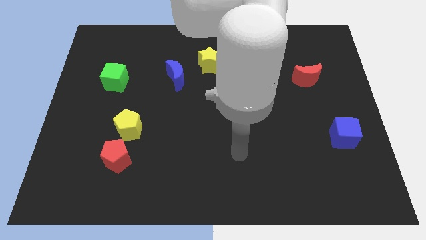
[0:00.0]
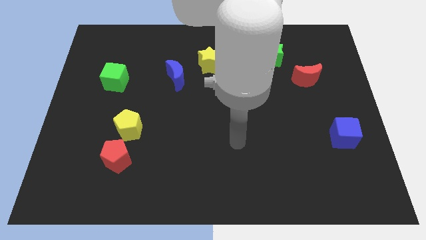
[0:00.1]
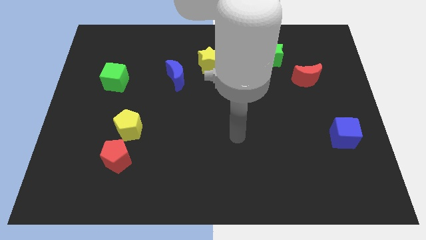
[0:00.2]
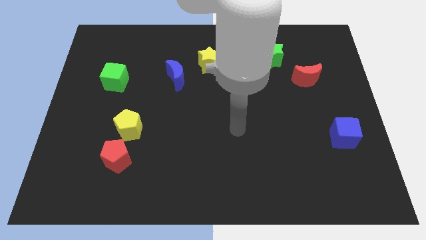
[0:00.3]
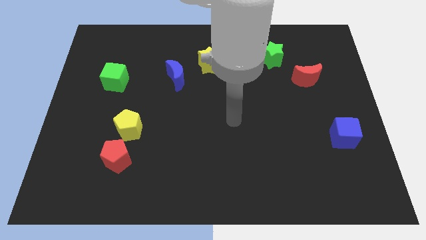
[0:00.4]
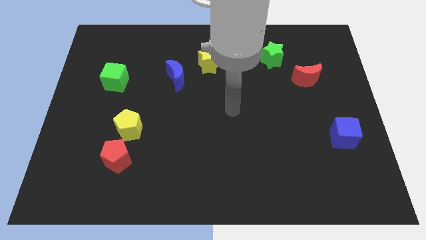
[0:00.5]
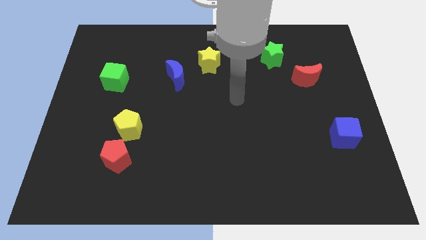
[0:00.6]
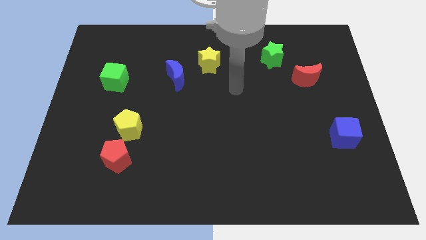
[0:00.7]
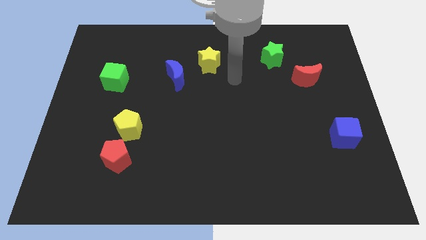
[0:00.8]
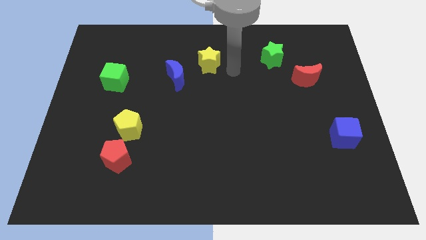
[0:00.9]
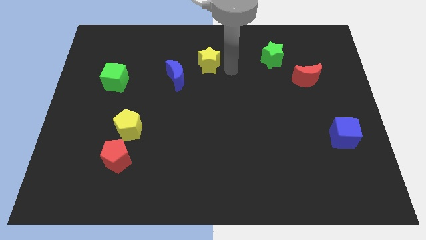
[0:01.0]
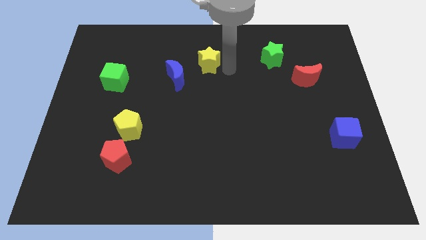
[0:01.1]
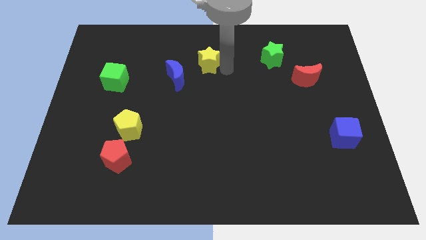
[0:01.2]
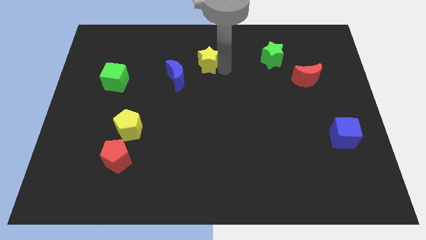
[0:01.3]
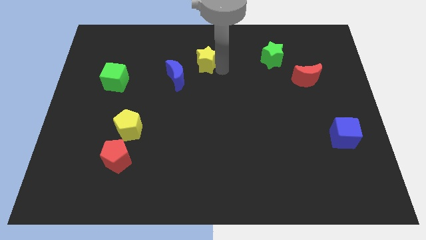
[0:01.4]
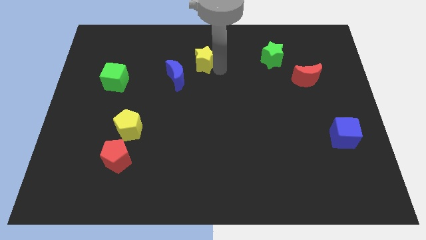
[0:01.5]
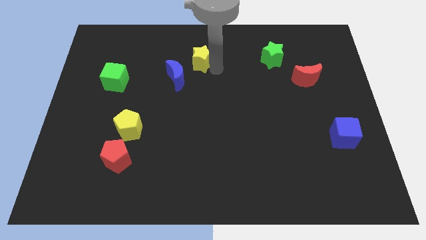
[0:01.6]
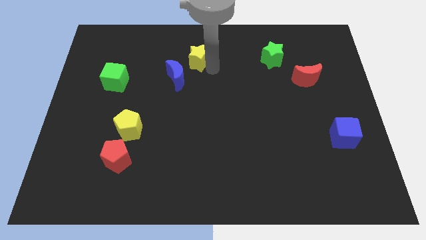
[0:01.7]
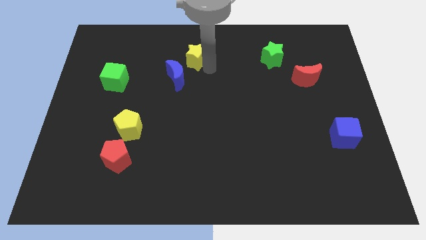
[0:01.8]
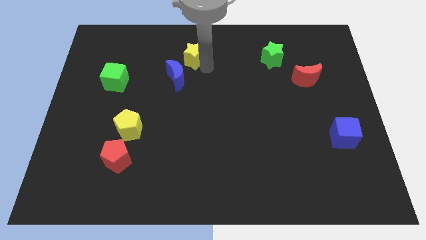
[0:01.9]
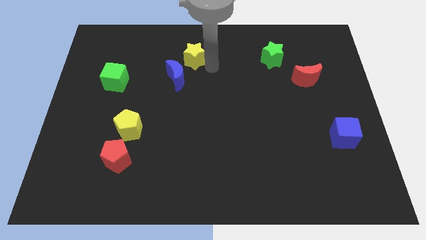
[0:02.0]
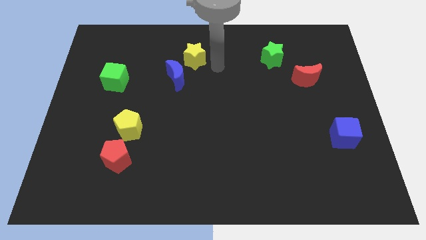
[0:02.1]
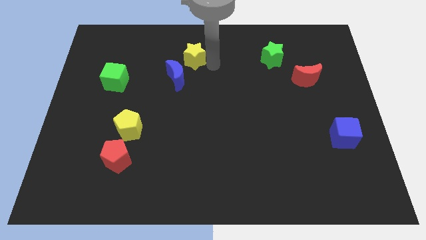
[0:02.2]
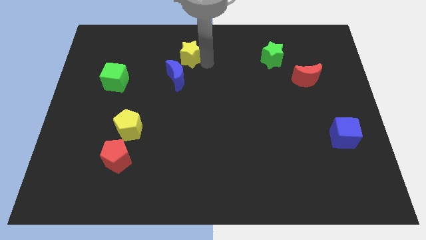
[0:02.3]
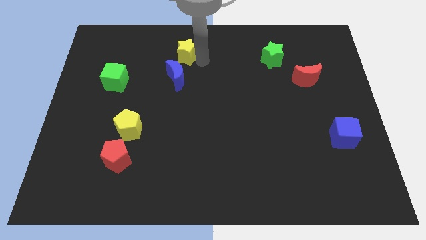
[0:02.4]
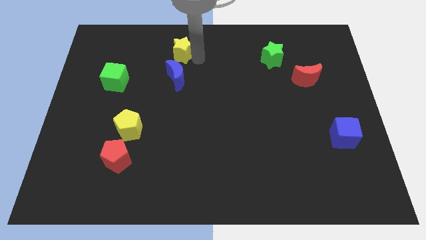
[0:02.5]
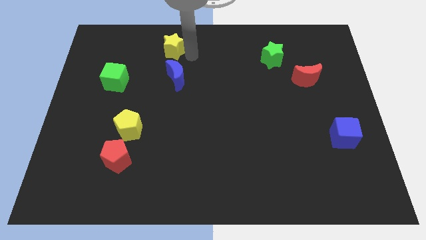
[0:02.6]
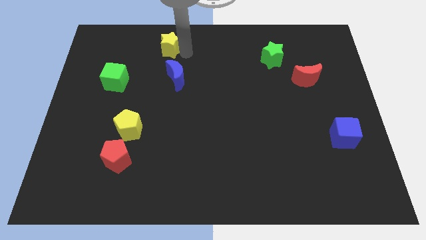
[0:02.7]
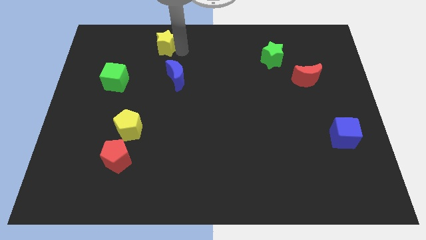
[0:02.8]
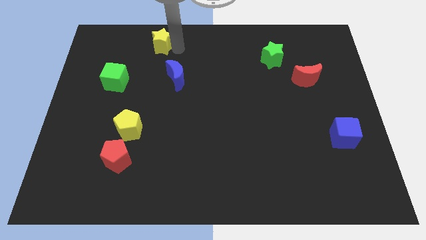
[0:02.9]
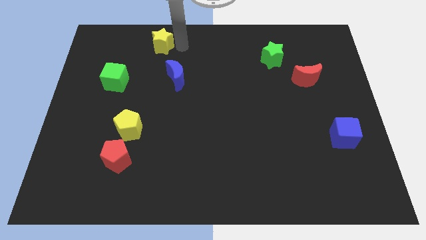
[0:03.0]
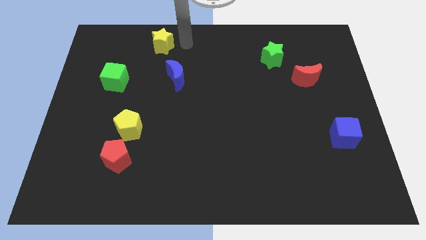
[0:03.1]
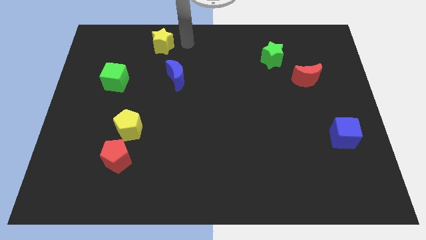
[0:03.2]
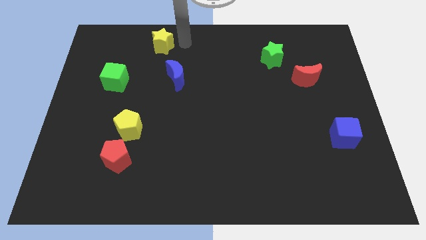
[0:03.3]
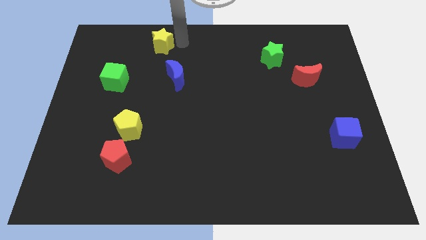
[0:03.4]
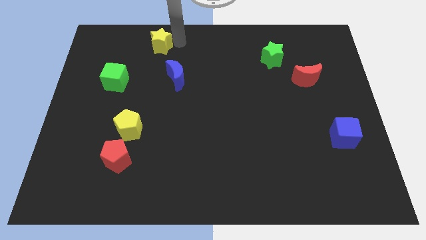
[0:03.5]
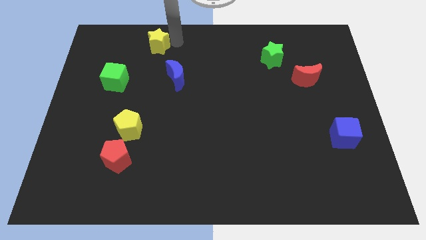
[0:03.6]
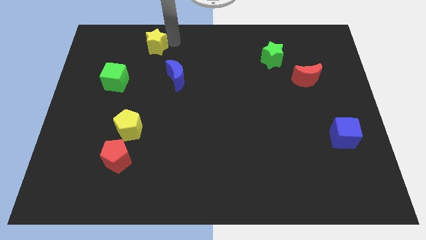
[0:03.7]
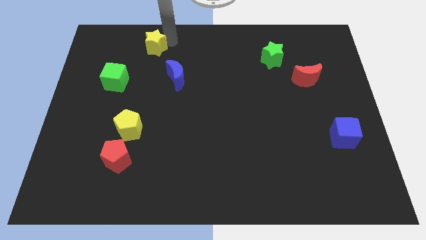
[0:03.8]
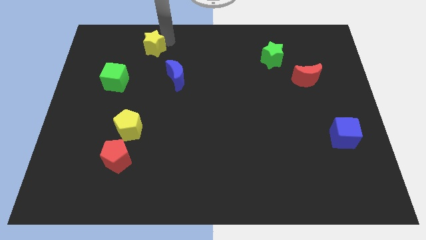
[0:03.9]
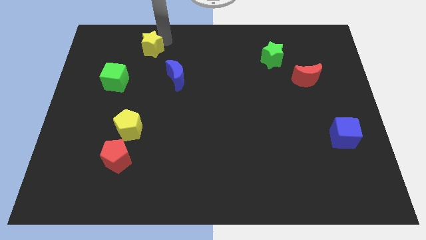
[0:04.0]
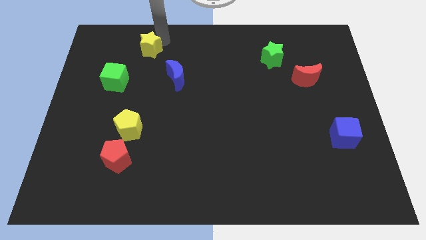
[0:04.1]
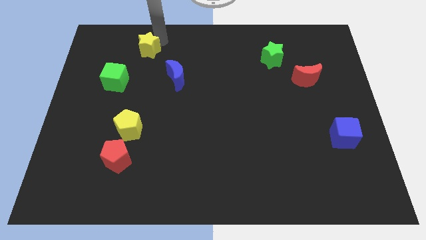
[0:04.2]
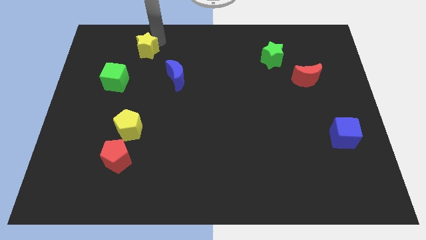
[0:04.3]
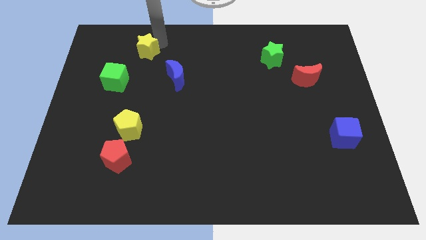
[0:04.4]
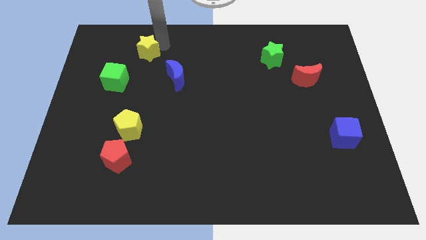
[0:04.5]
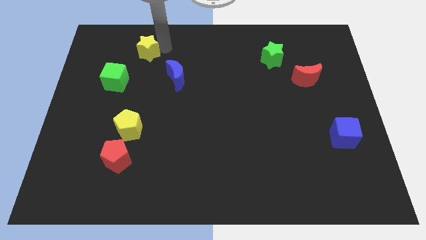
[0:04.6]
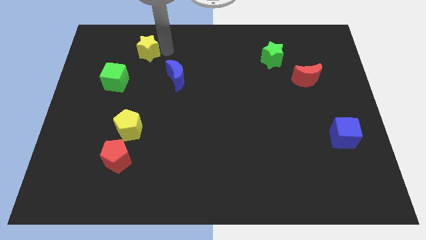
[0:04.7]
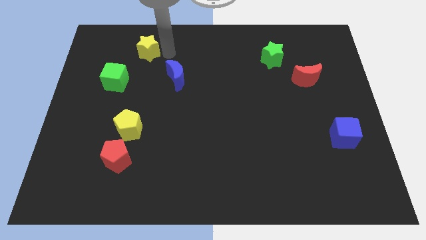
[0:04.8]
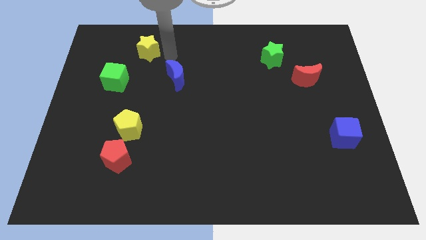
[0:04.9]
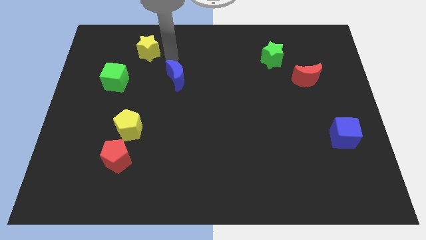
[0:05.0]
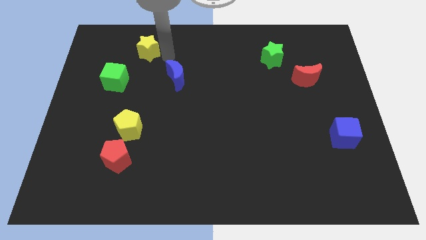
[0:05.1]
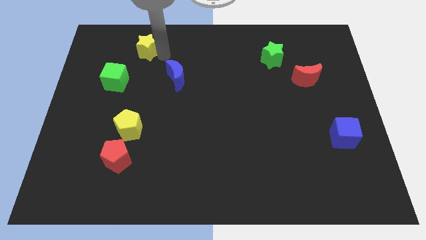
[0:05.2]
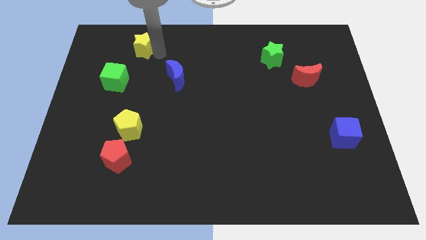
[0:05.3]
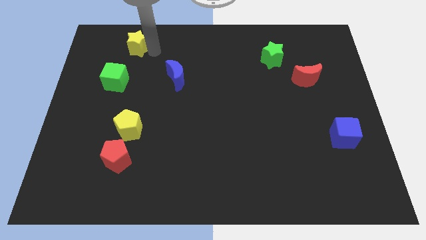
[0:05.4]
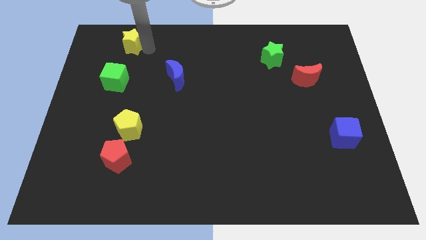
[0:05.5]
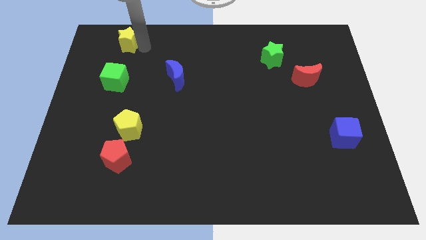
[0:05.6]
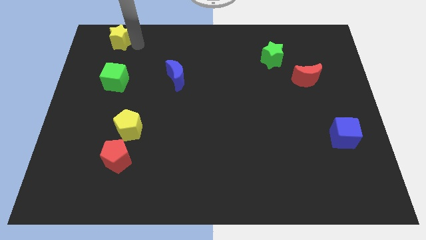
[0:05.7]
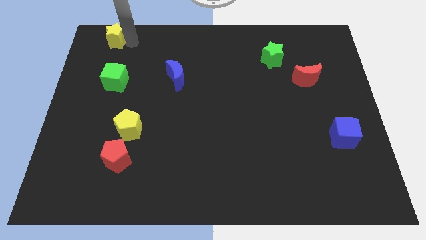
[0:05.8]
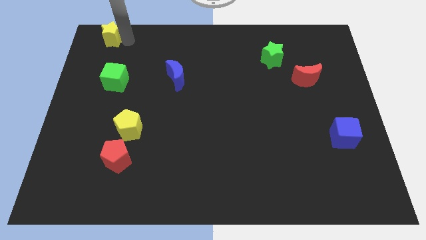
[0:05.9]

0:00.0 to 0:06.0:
slide the yellow star to the top left corner

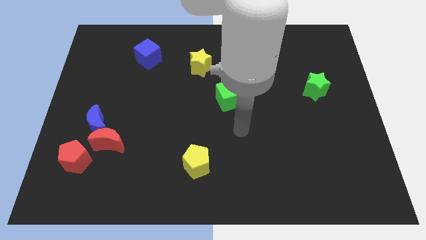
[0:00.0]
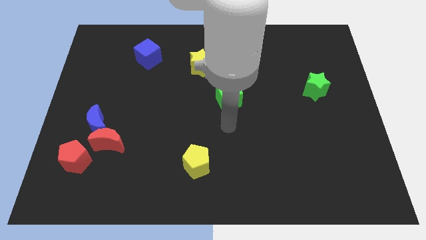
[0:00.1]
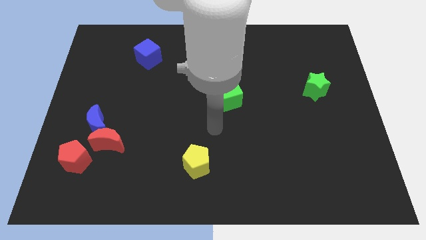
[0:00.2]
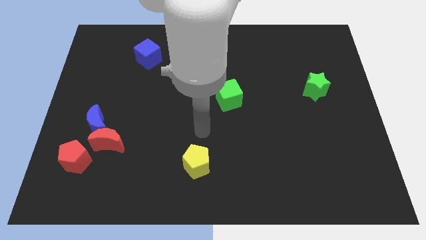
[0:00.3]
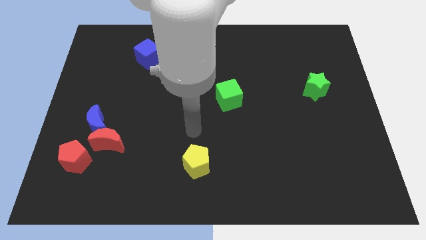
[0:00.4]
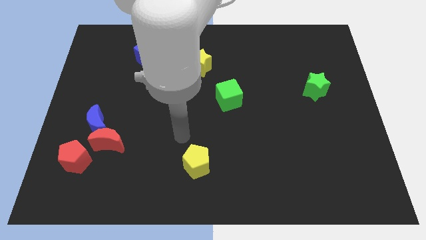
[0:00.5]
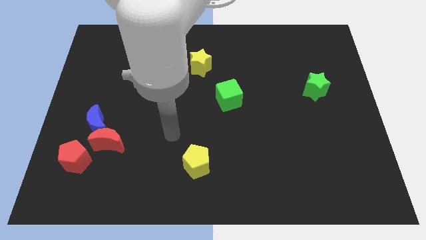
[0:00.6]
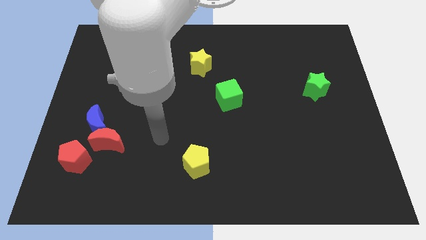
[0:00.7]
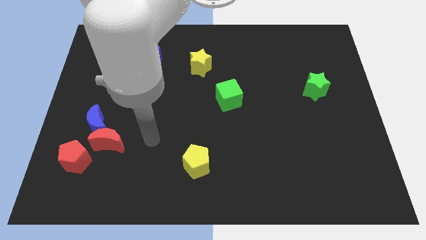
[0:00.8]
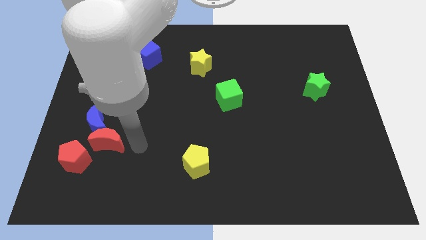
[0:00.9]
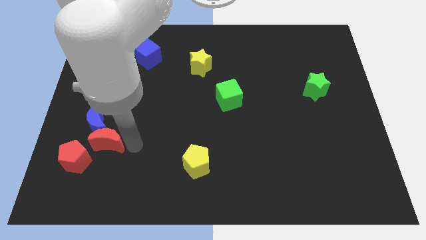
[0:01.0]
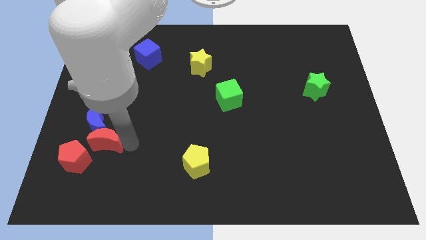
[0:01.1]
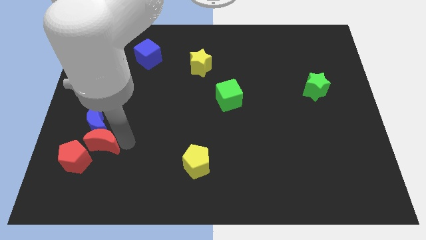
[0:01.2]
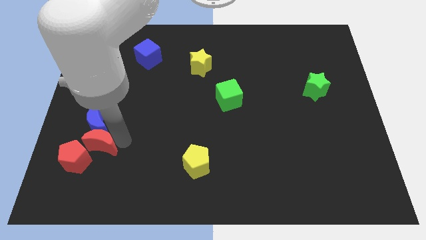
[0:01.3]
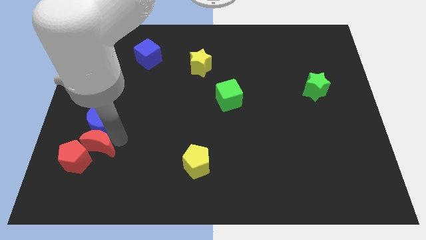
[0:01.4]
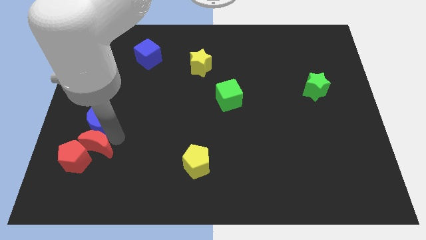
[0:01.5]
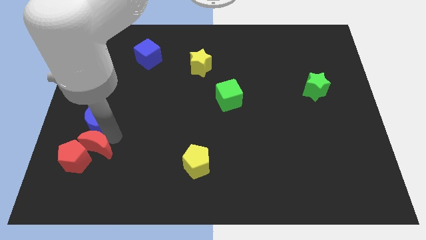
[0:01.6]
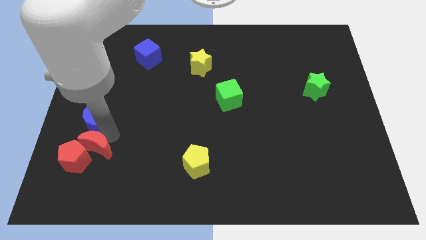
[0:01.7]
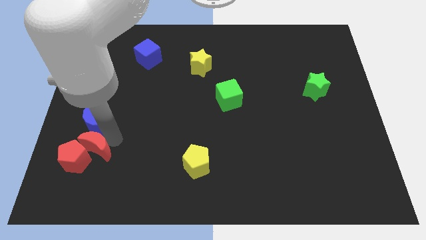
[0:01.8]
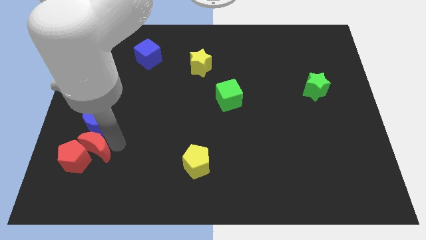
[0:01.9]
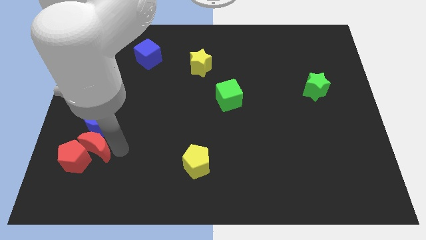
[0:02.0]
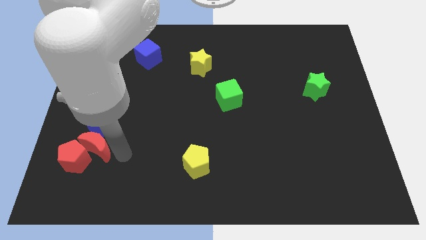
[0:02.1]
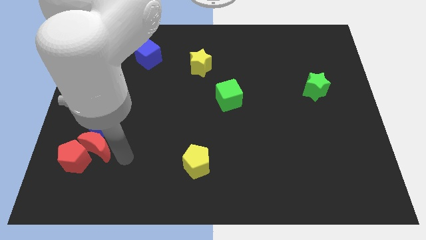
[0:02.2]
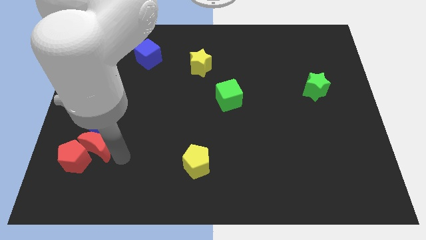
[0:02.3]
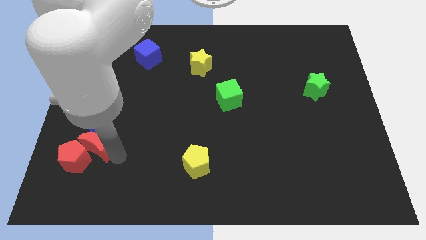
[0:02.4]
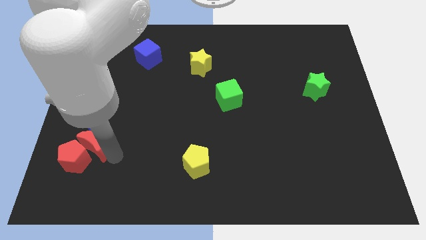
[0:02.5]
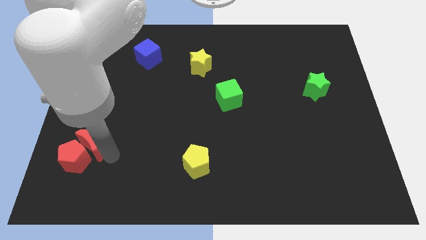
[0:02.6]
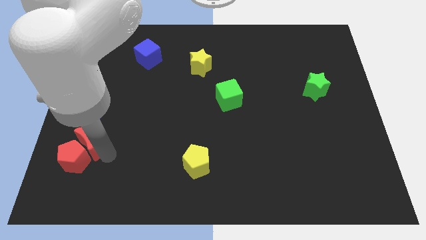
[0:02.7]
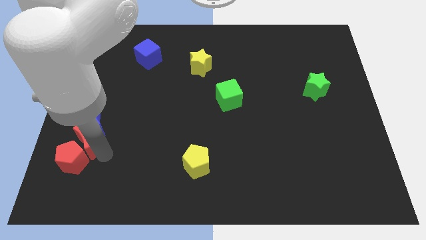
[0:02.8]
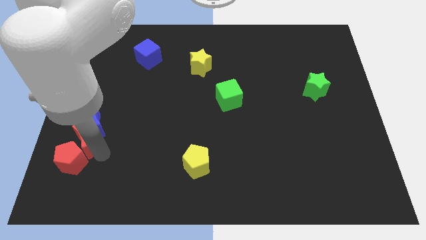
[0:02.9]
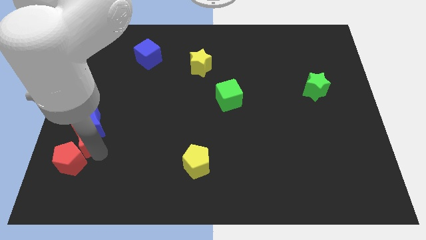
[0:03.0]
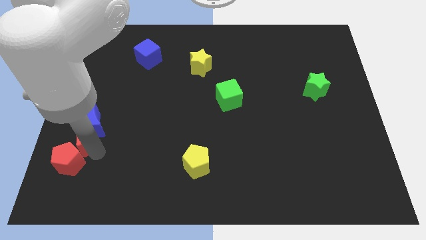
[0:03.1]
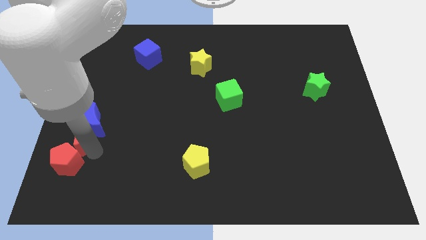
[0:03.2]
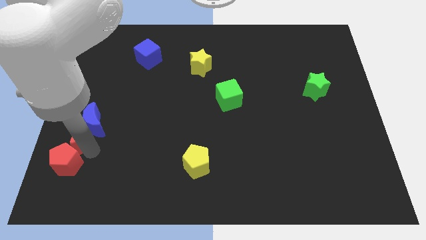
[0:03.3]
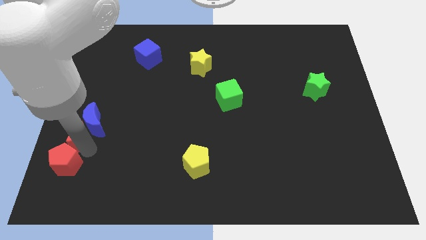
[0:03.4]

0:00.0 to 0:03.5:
slide the red moon to the left side of the board
